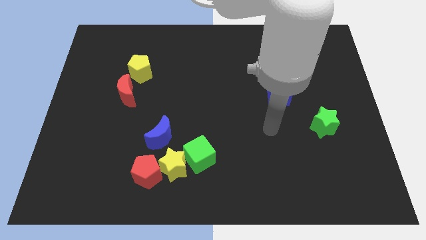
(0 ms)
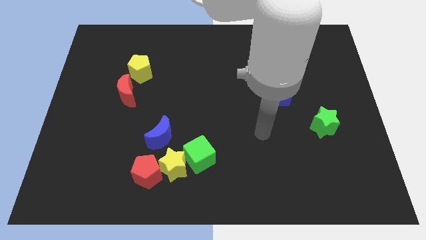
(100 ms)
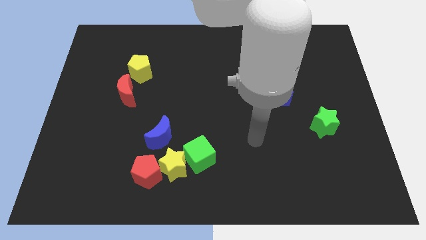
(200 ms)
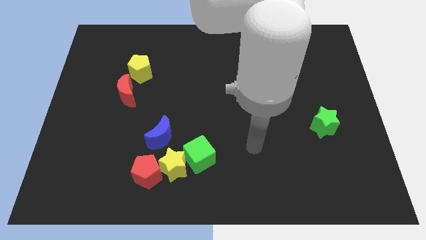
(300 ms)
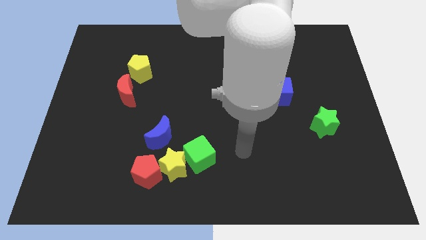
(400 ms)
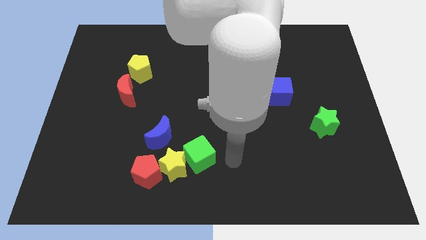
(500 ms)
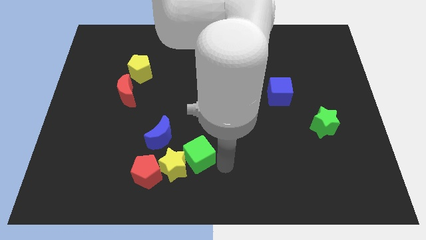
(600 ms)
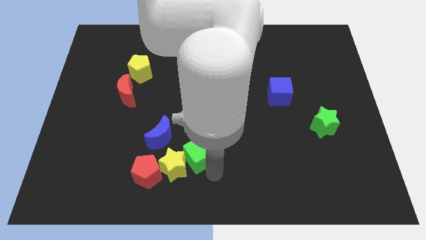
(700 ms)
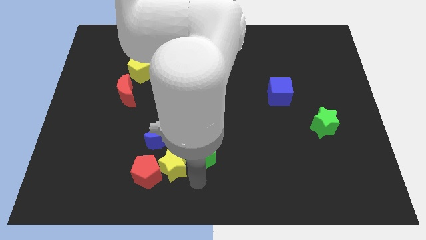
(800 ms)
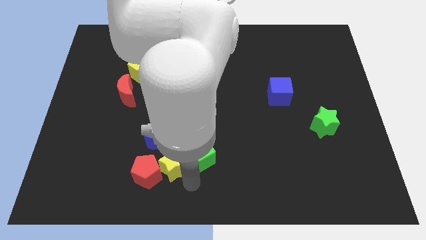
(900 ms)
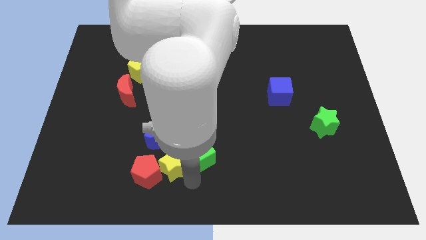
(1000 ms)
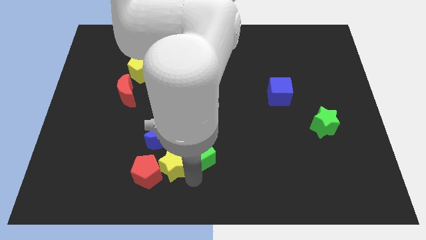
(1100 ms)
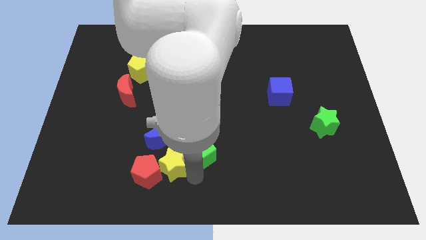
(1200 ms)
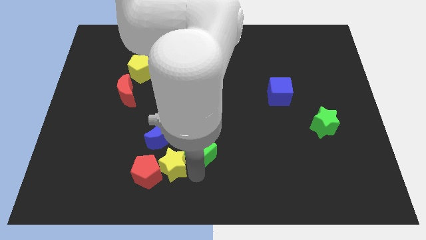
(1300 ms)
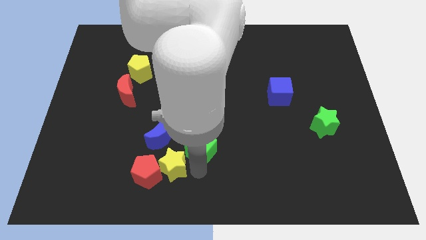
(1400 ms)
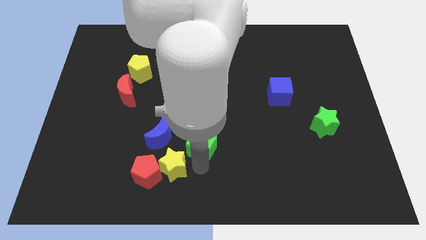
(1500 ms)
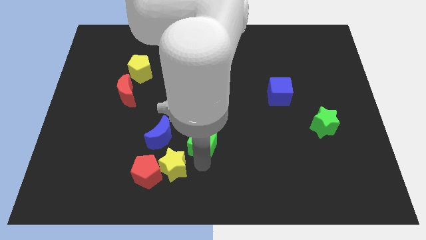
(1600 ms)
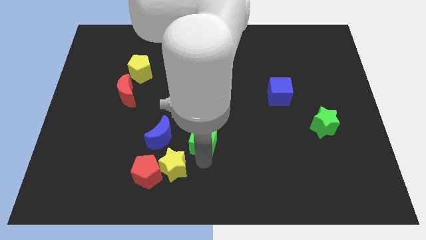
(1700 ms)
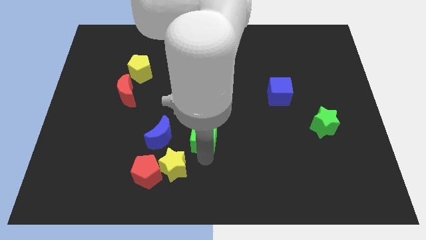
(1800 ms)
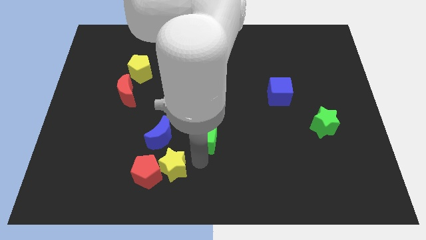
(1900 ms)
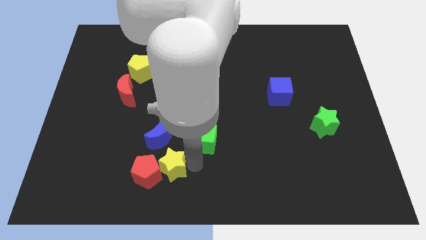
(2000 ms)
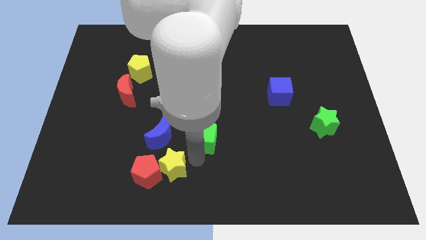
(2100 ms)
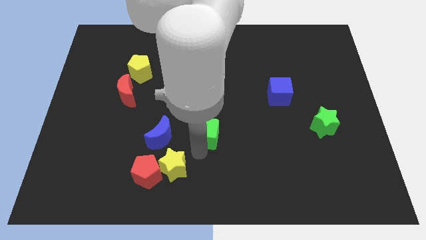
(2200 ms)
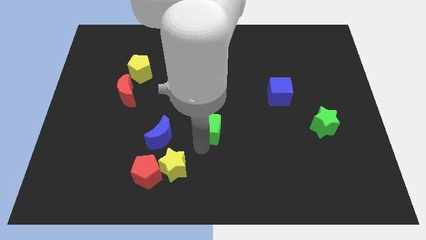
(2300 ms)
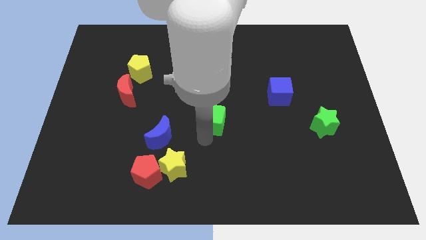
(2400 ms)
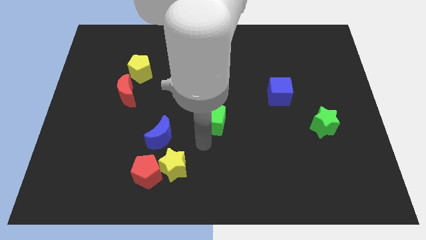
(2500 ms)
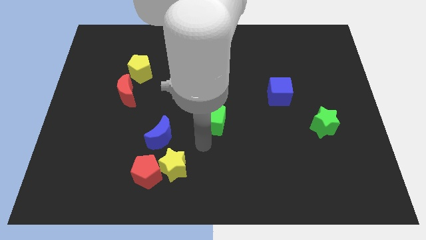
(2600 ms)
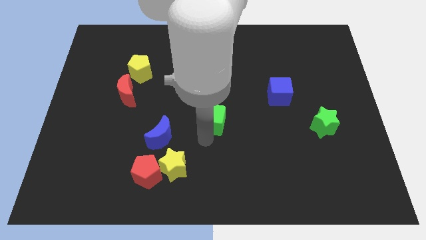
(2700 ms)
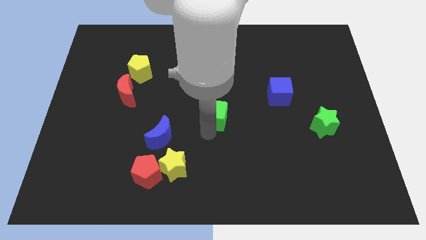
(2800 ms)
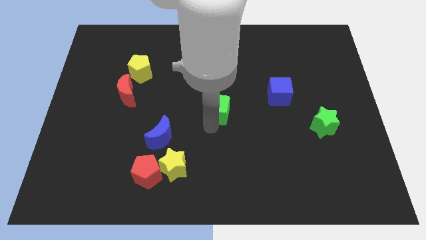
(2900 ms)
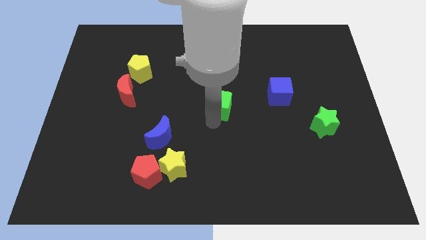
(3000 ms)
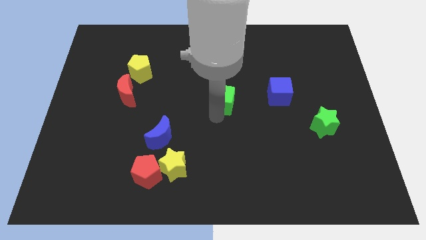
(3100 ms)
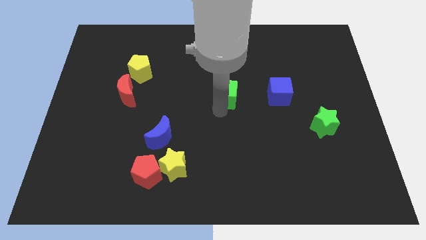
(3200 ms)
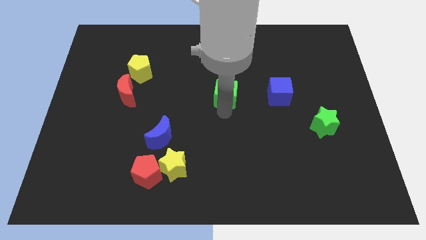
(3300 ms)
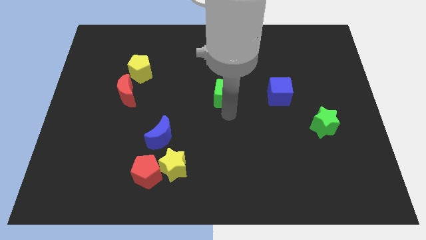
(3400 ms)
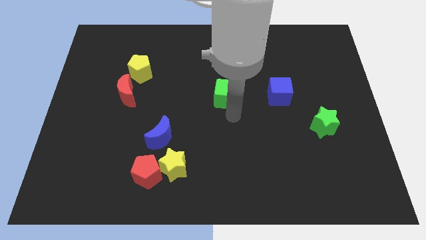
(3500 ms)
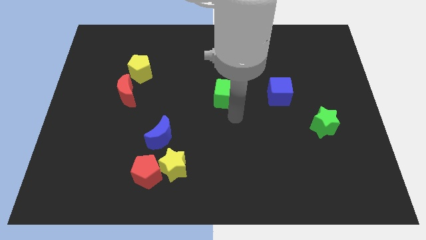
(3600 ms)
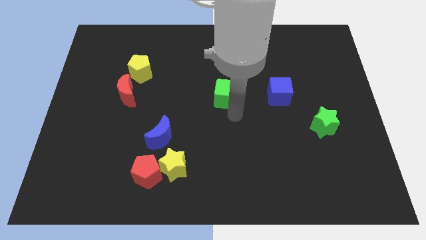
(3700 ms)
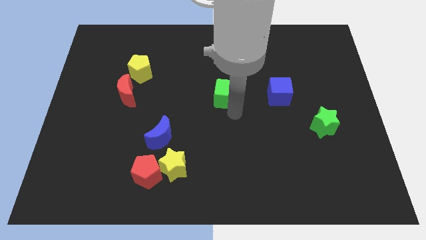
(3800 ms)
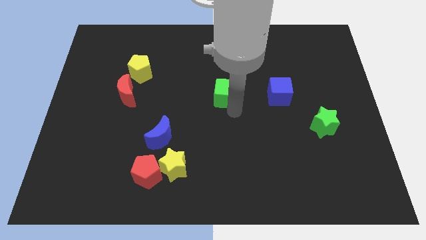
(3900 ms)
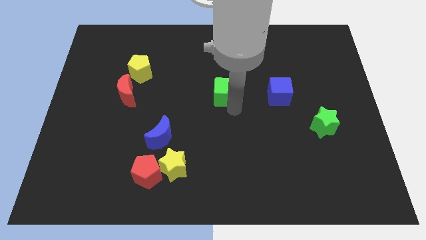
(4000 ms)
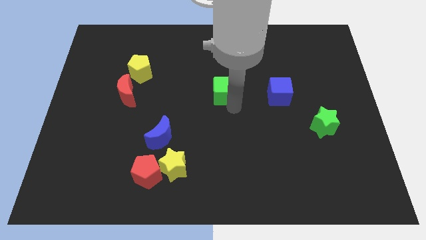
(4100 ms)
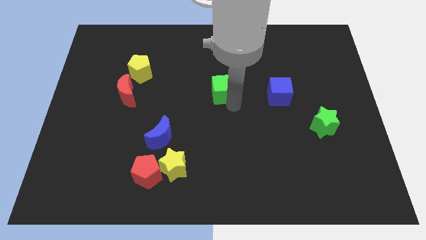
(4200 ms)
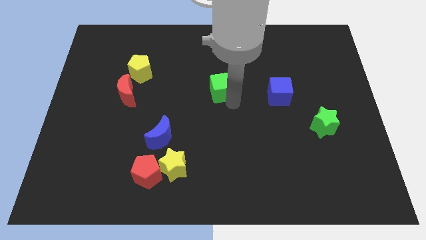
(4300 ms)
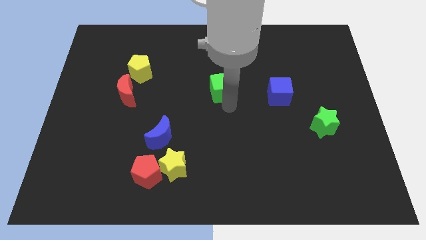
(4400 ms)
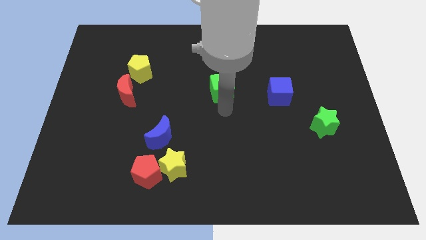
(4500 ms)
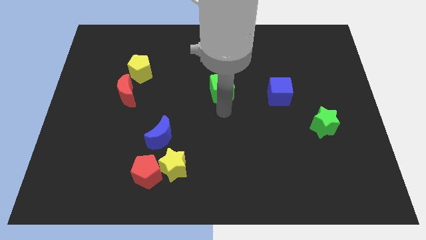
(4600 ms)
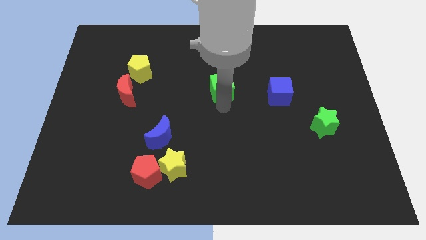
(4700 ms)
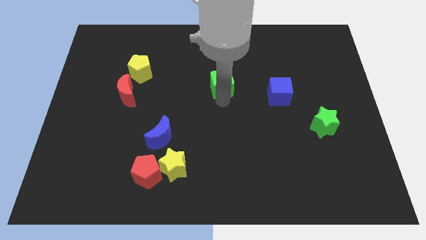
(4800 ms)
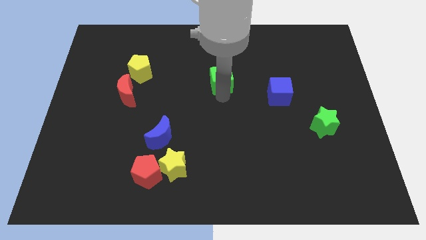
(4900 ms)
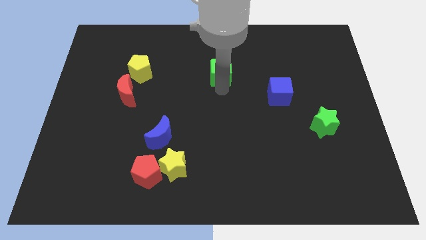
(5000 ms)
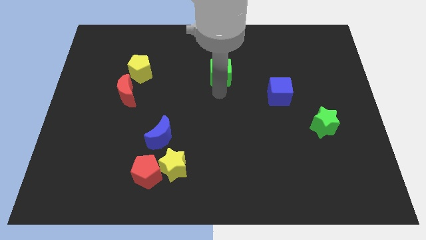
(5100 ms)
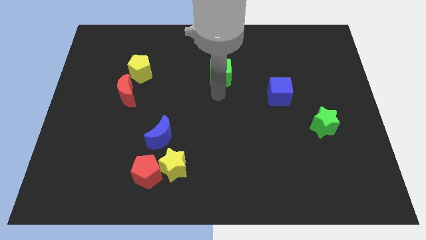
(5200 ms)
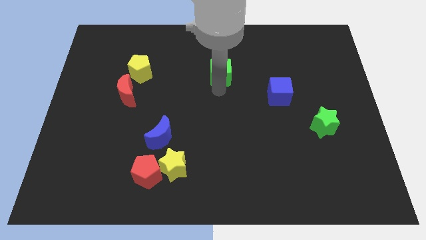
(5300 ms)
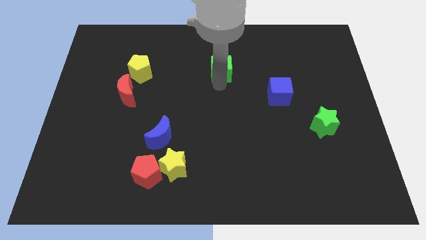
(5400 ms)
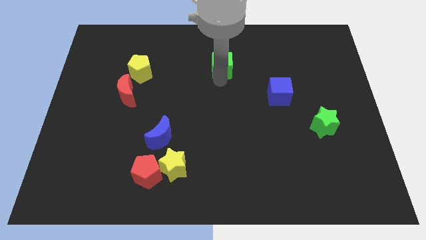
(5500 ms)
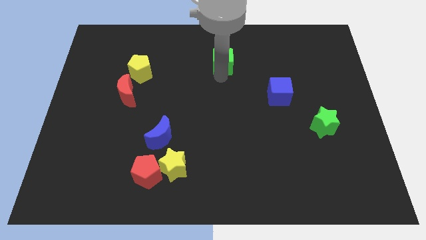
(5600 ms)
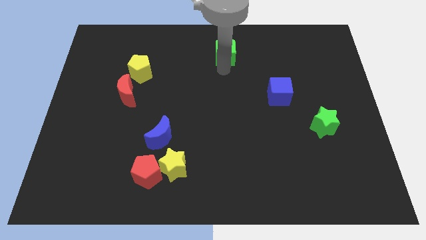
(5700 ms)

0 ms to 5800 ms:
push the green cube to the top side

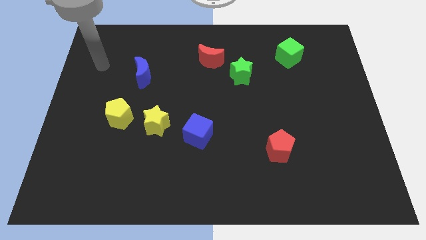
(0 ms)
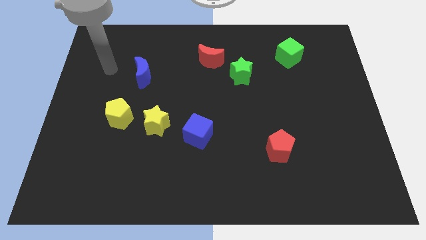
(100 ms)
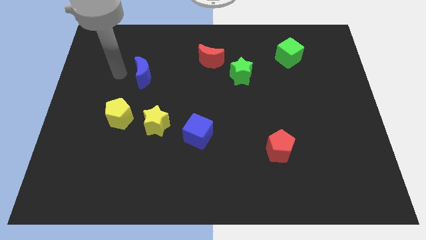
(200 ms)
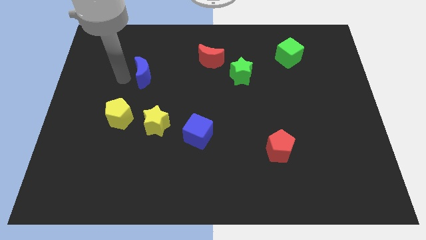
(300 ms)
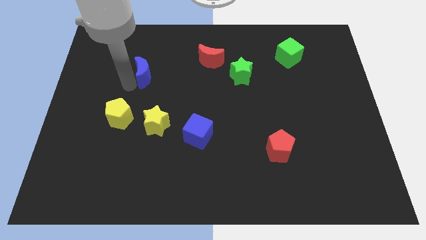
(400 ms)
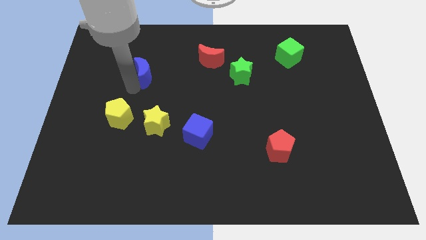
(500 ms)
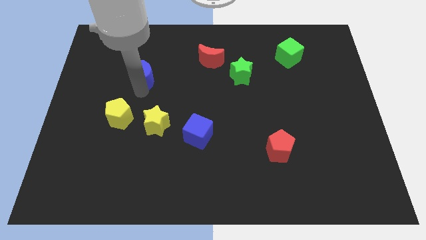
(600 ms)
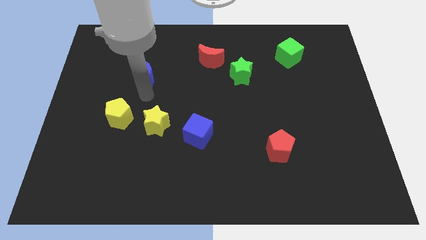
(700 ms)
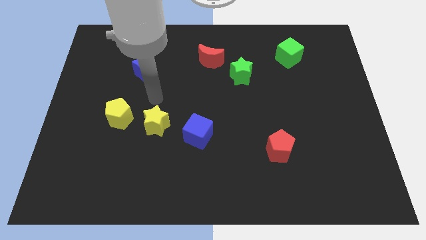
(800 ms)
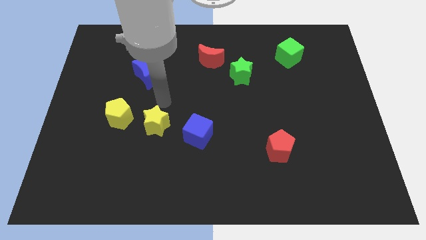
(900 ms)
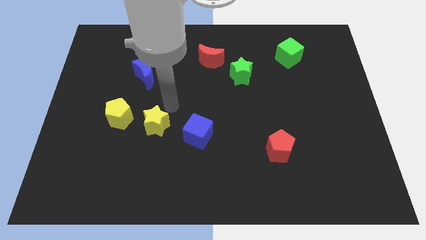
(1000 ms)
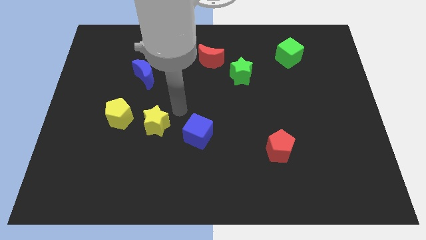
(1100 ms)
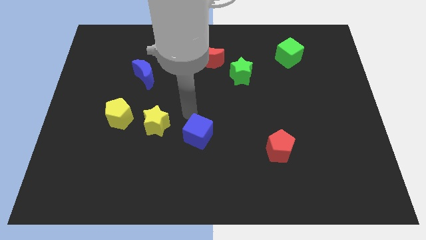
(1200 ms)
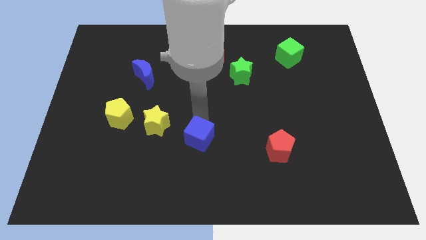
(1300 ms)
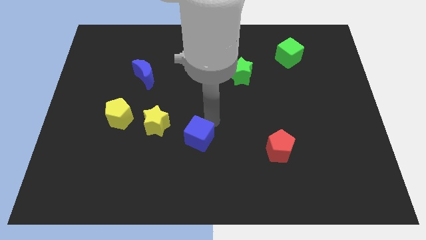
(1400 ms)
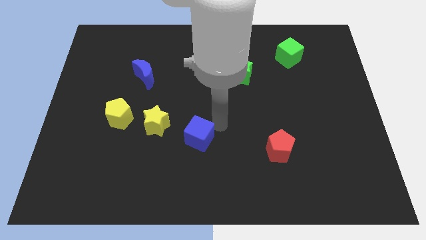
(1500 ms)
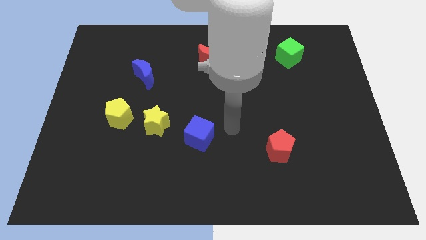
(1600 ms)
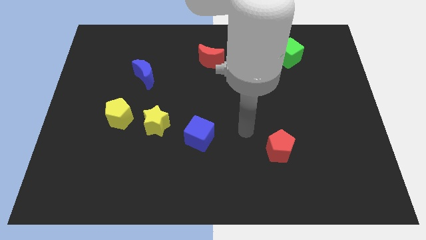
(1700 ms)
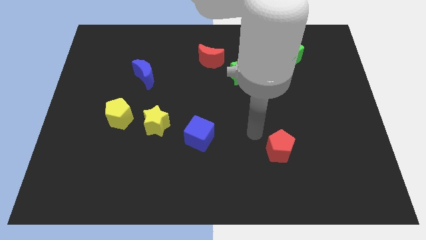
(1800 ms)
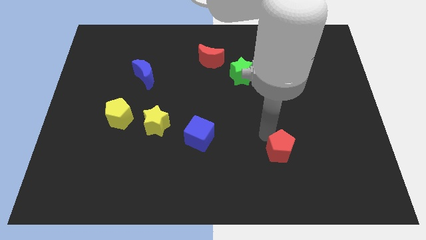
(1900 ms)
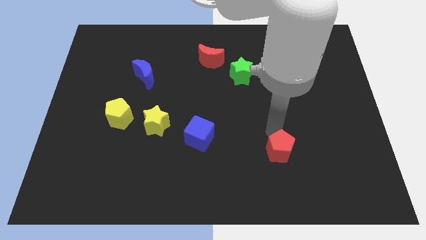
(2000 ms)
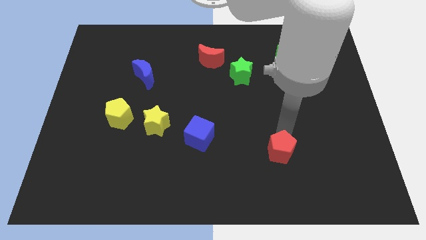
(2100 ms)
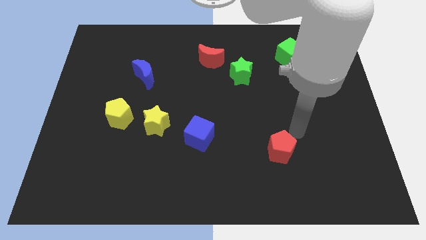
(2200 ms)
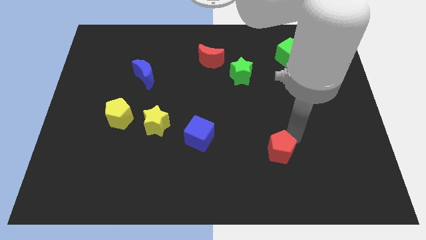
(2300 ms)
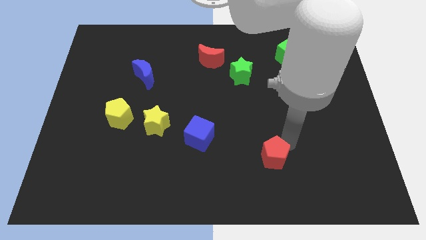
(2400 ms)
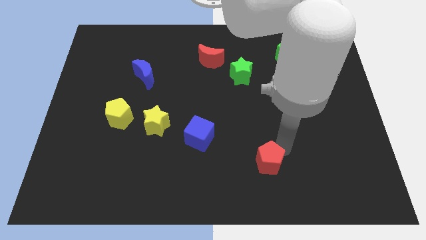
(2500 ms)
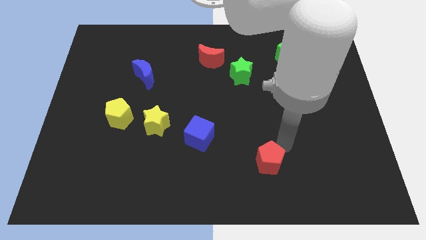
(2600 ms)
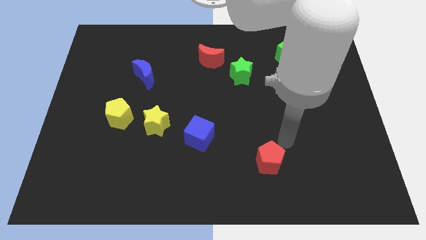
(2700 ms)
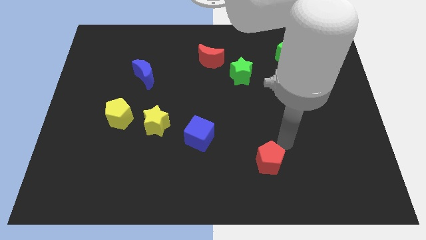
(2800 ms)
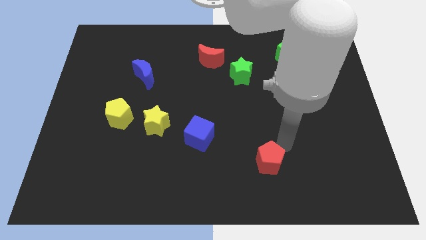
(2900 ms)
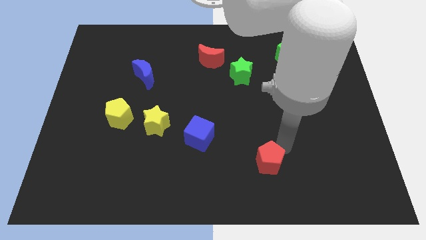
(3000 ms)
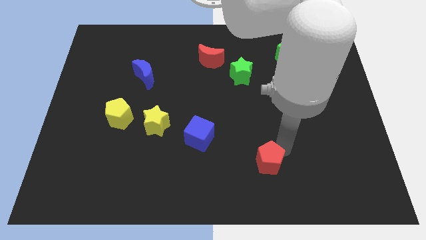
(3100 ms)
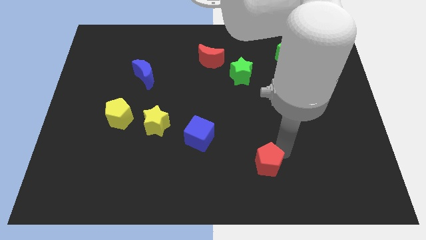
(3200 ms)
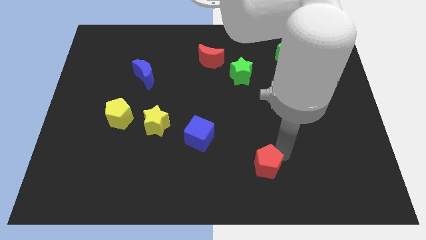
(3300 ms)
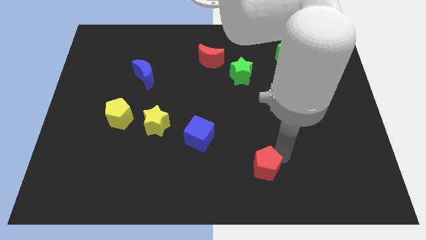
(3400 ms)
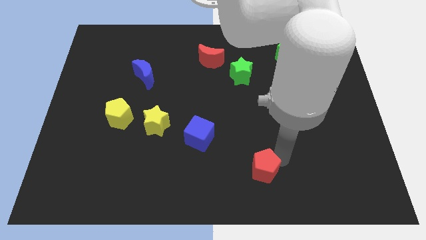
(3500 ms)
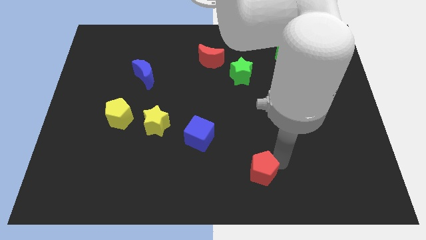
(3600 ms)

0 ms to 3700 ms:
push the red pentagon to the bottom
